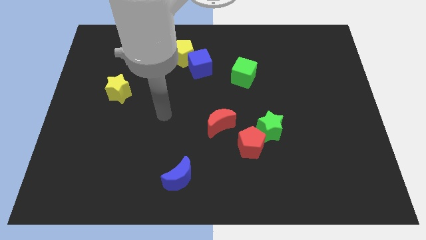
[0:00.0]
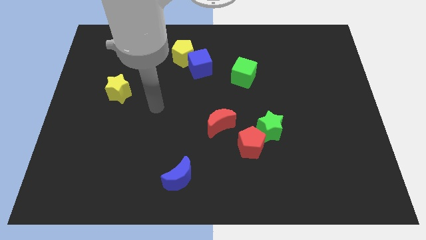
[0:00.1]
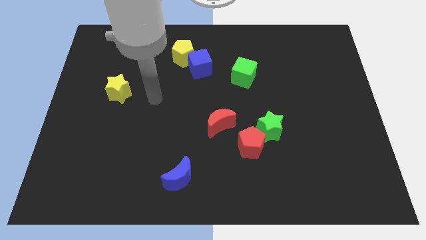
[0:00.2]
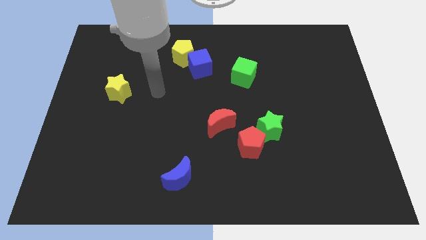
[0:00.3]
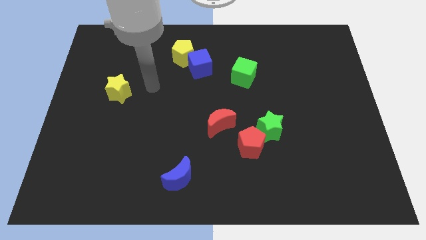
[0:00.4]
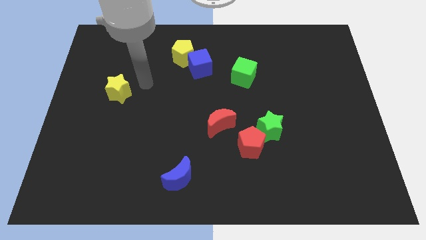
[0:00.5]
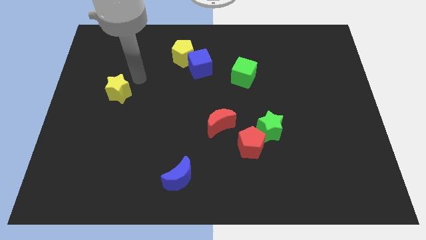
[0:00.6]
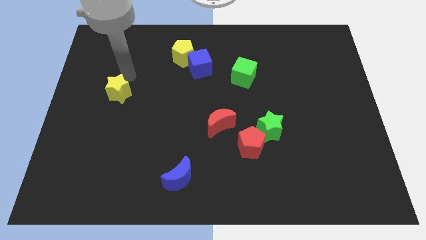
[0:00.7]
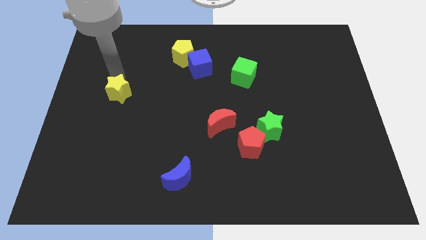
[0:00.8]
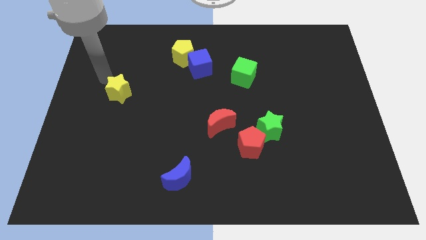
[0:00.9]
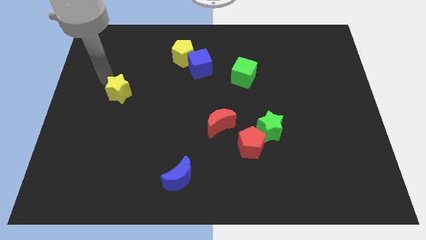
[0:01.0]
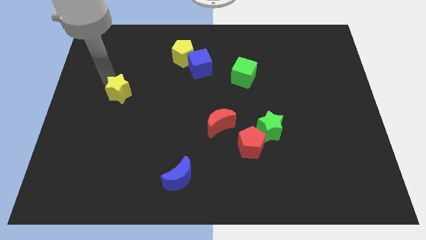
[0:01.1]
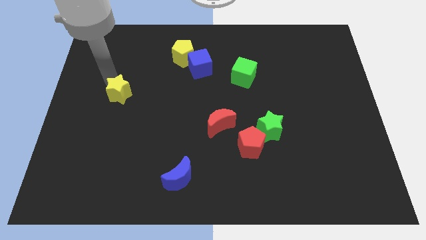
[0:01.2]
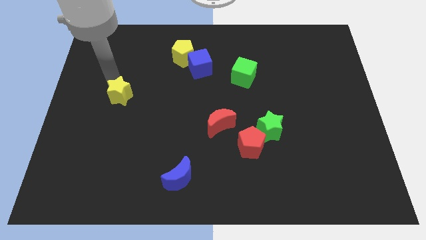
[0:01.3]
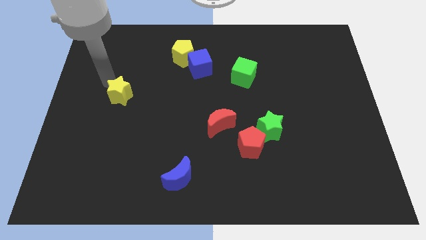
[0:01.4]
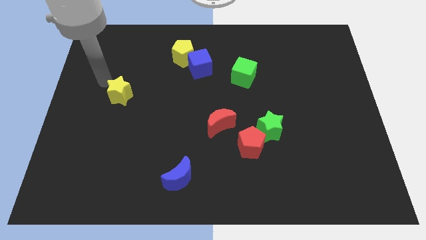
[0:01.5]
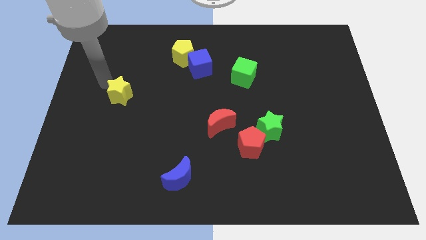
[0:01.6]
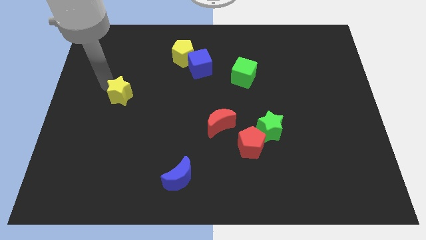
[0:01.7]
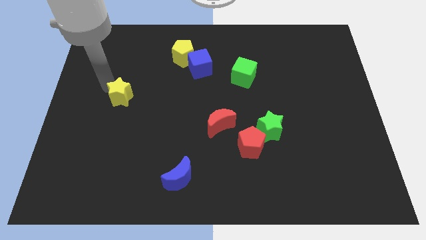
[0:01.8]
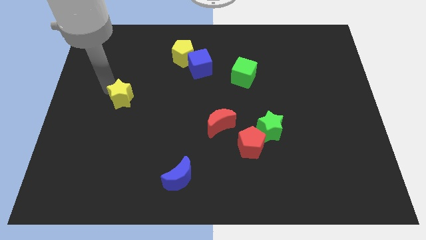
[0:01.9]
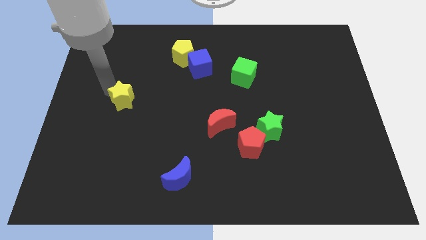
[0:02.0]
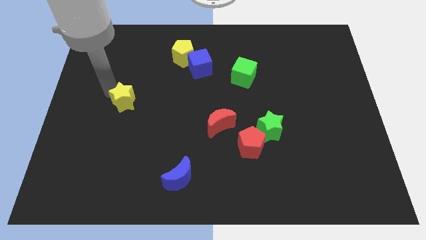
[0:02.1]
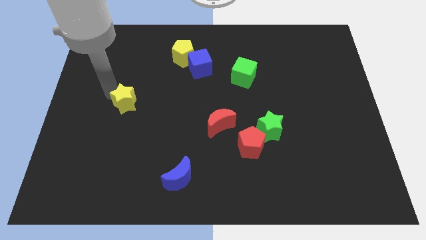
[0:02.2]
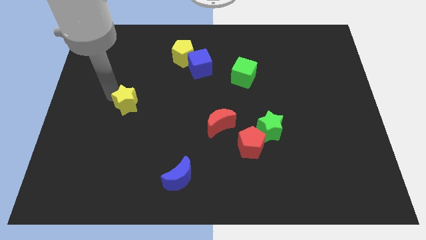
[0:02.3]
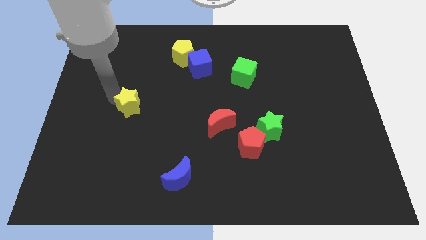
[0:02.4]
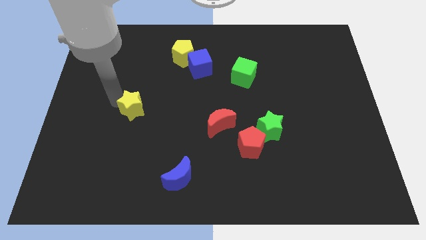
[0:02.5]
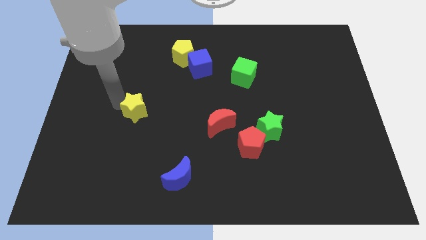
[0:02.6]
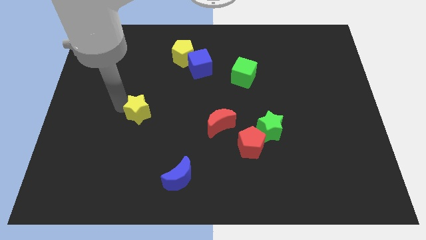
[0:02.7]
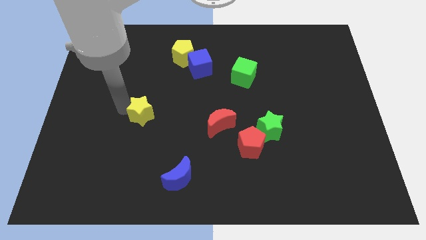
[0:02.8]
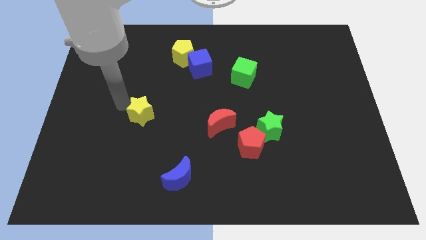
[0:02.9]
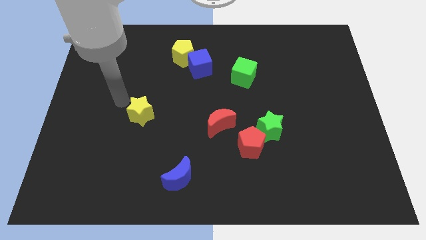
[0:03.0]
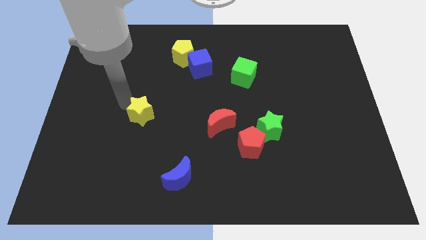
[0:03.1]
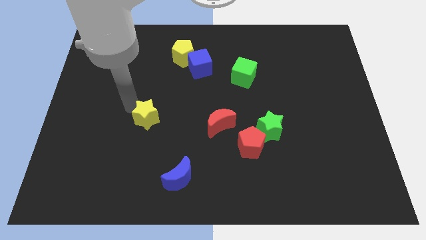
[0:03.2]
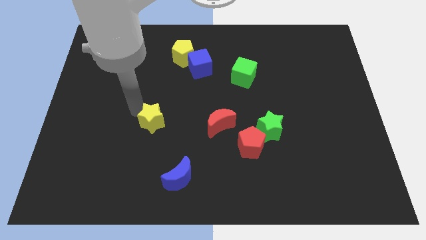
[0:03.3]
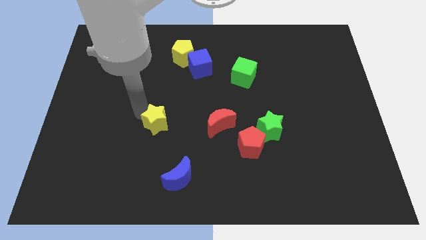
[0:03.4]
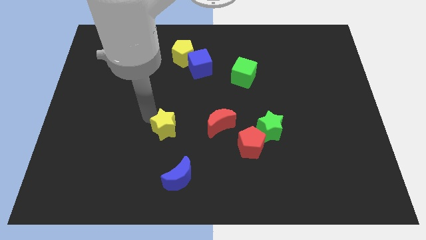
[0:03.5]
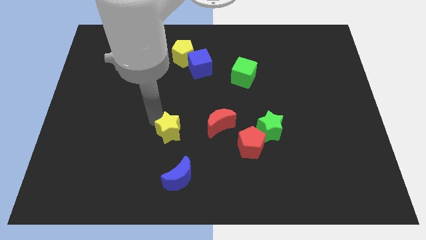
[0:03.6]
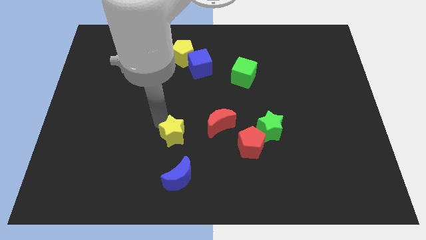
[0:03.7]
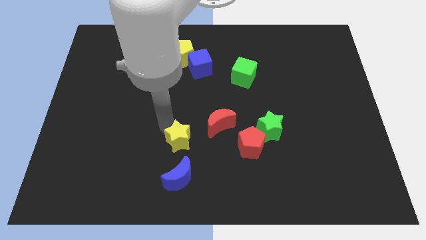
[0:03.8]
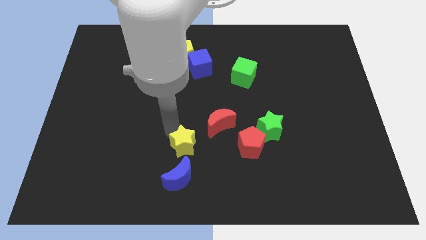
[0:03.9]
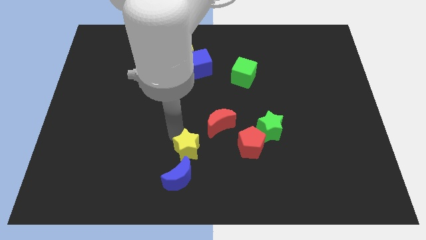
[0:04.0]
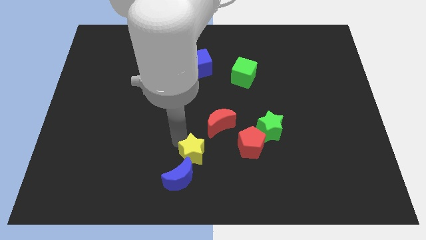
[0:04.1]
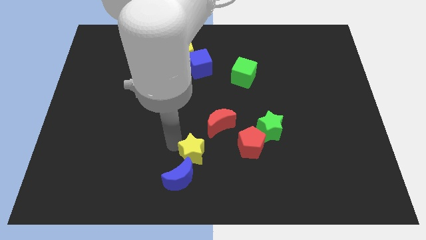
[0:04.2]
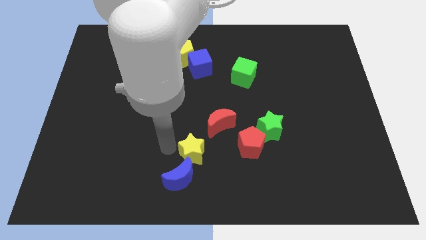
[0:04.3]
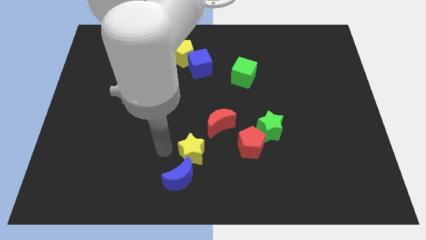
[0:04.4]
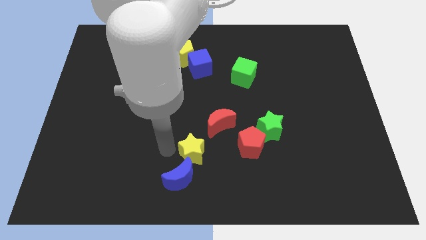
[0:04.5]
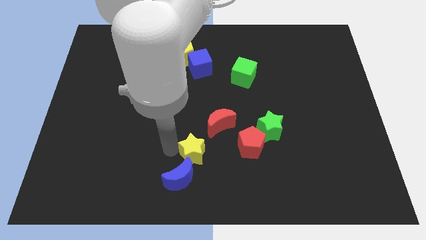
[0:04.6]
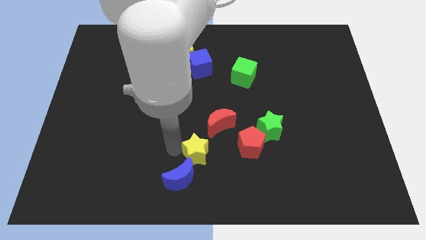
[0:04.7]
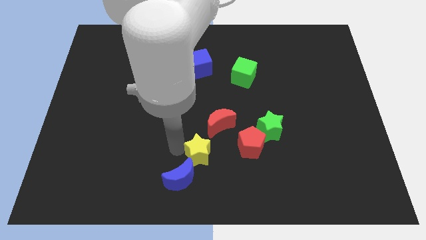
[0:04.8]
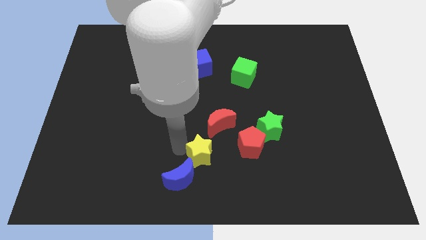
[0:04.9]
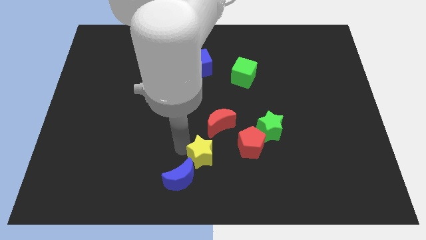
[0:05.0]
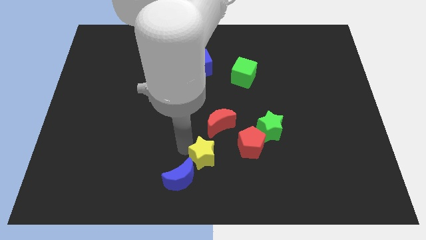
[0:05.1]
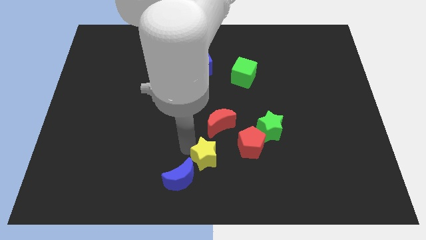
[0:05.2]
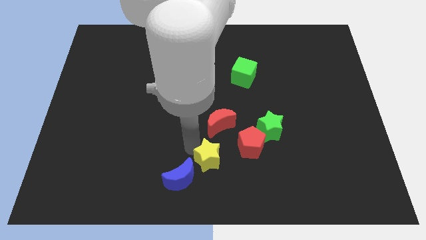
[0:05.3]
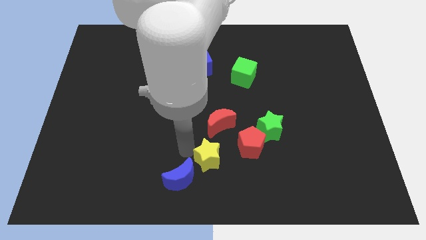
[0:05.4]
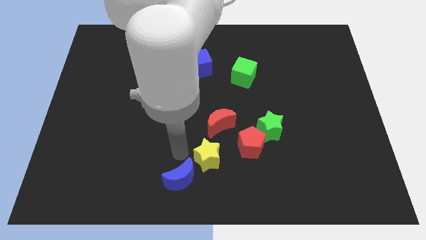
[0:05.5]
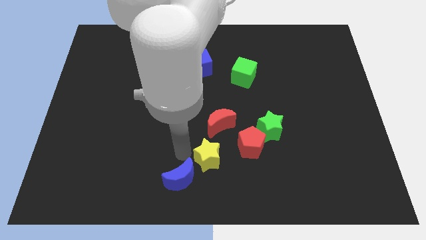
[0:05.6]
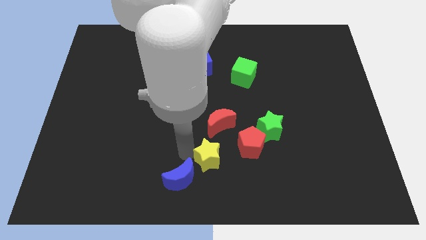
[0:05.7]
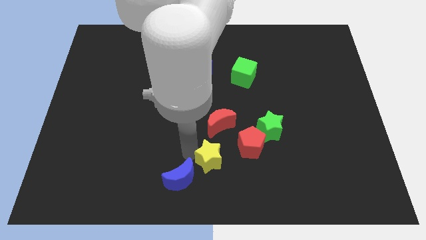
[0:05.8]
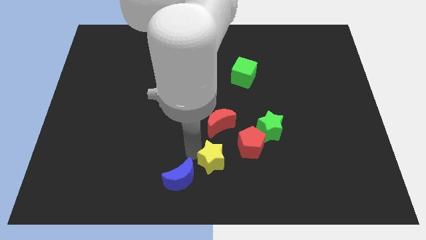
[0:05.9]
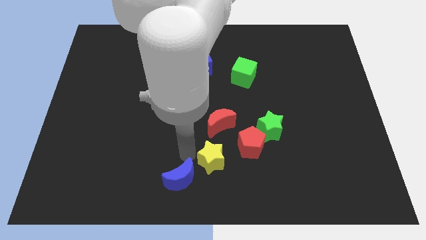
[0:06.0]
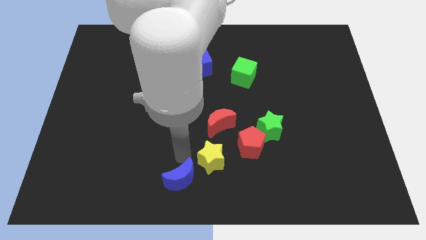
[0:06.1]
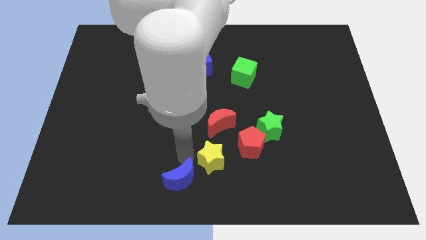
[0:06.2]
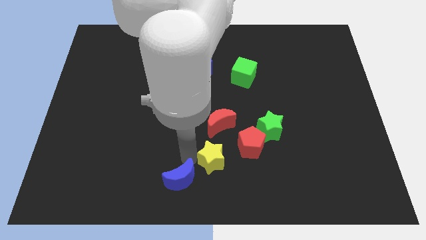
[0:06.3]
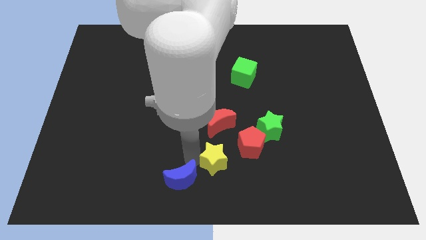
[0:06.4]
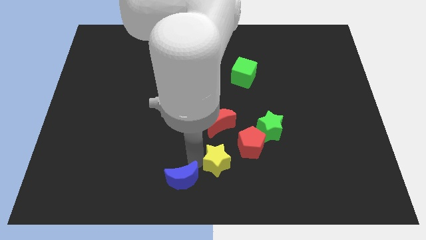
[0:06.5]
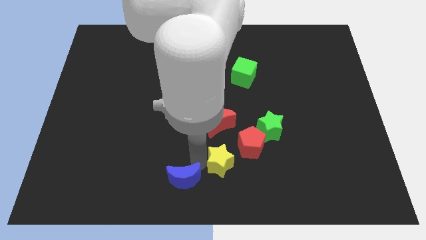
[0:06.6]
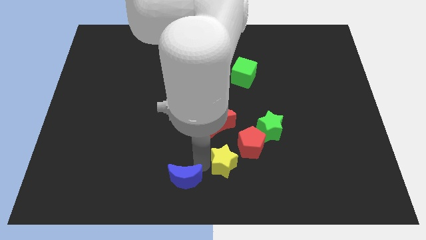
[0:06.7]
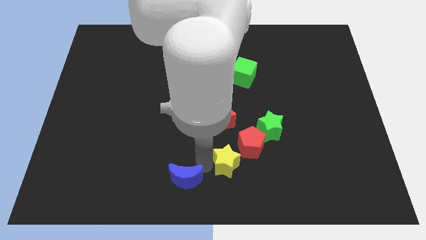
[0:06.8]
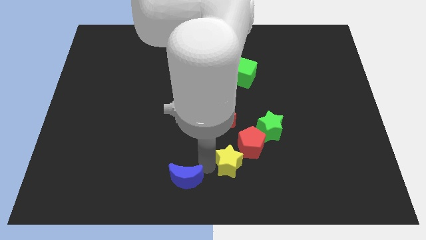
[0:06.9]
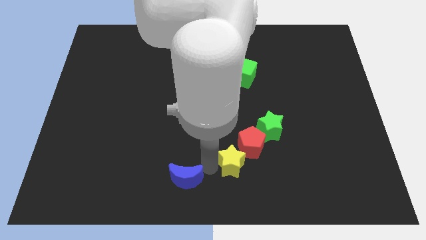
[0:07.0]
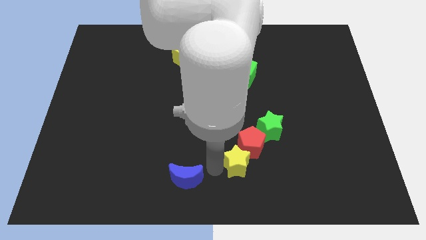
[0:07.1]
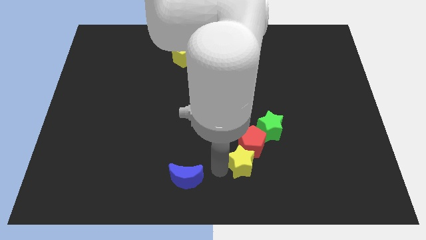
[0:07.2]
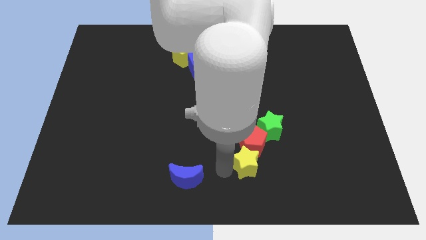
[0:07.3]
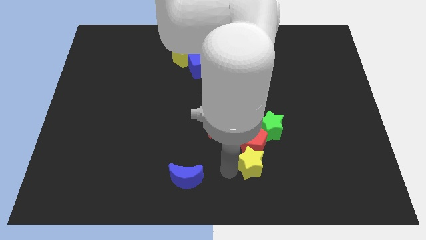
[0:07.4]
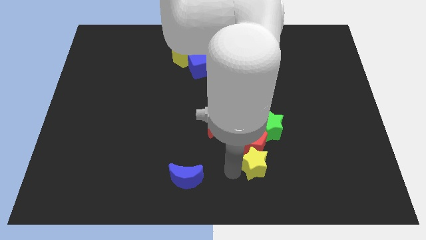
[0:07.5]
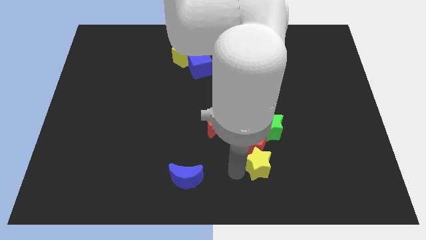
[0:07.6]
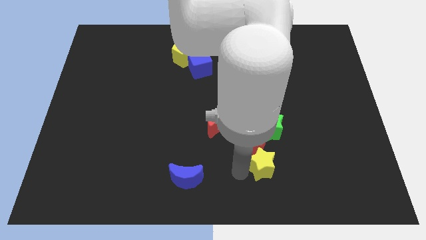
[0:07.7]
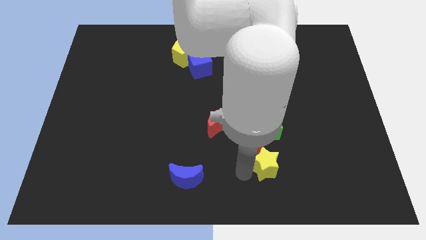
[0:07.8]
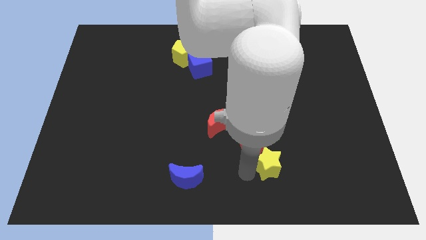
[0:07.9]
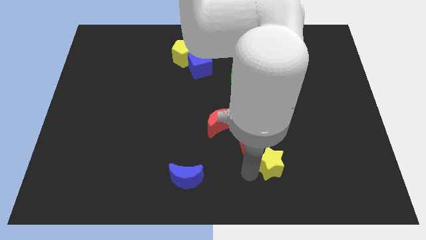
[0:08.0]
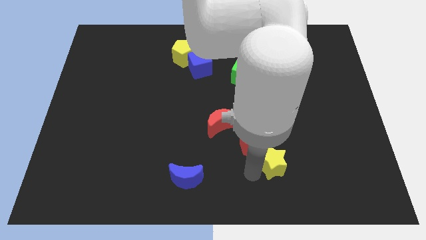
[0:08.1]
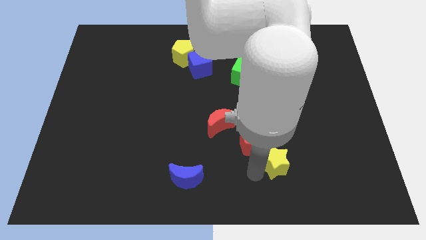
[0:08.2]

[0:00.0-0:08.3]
slide the yellow star to the right side of the red pentagon
